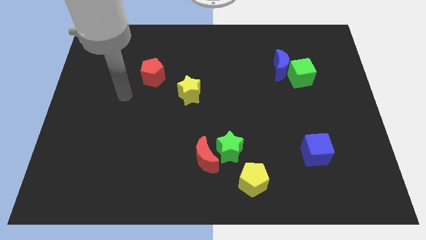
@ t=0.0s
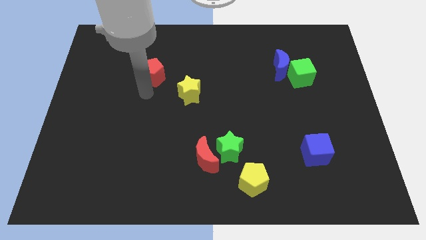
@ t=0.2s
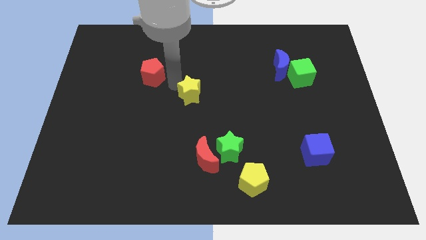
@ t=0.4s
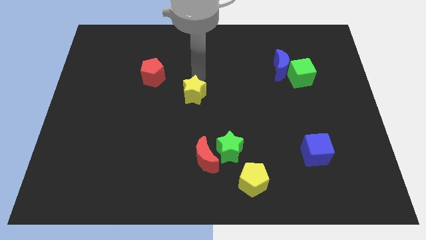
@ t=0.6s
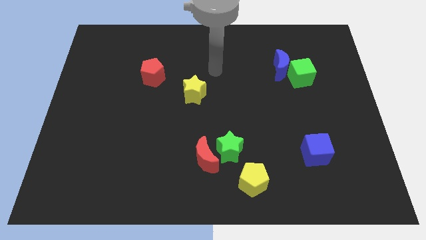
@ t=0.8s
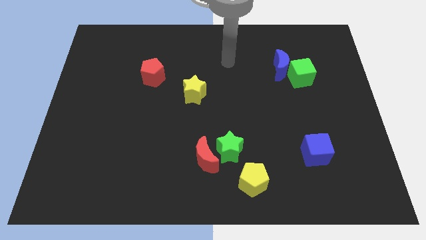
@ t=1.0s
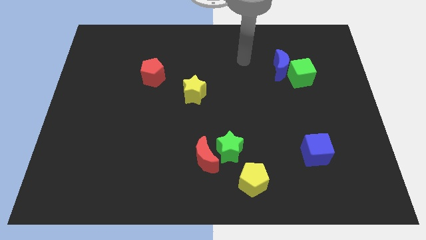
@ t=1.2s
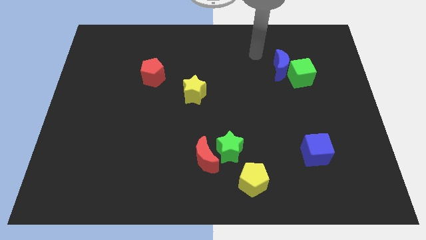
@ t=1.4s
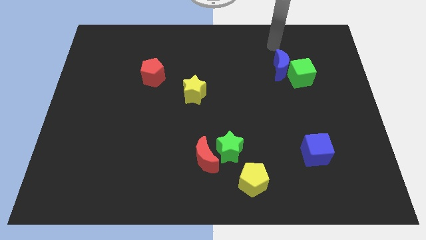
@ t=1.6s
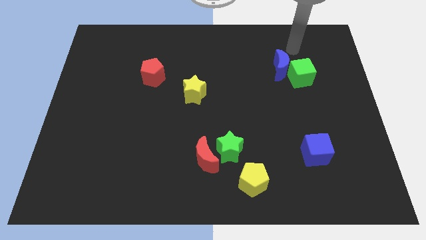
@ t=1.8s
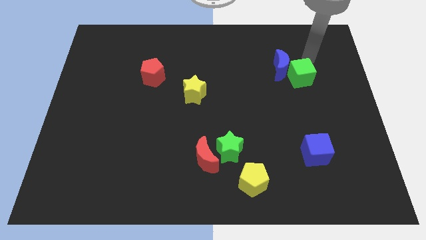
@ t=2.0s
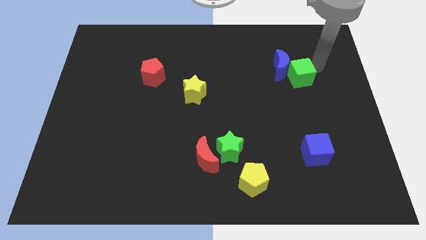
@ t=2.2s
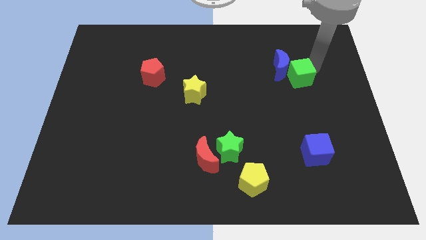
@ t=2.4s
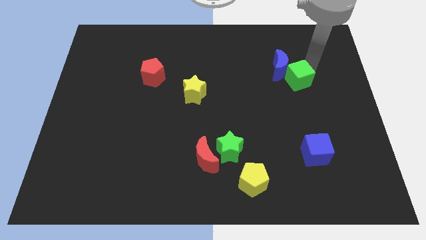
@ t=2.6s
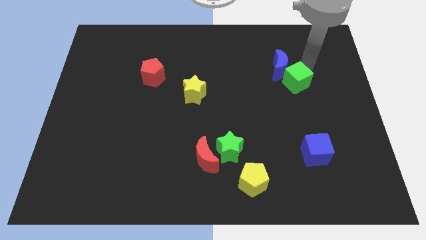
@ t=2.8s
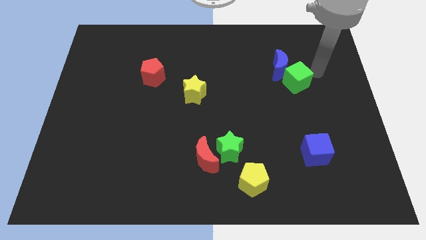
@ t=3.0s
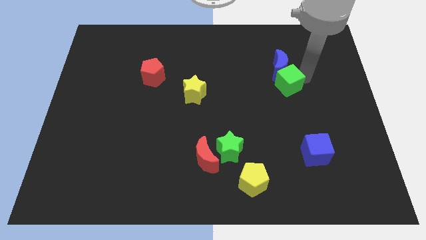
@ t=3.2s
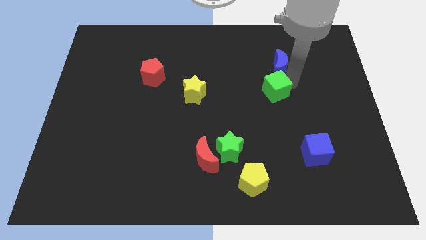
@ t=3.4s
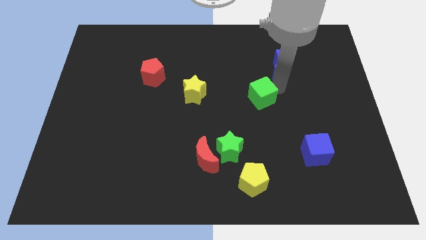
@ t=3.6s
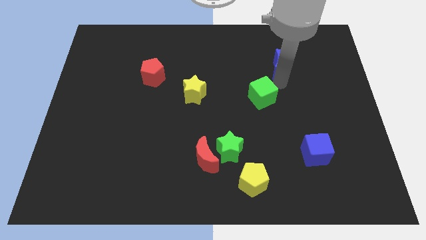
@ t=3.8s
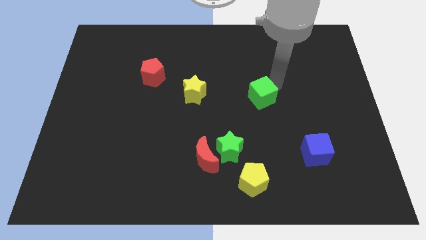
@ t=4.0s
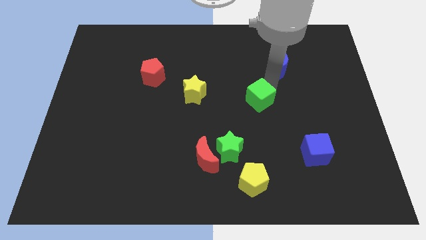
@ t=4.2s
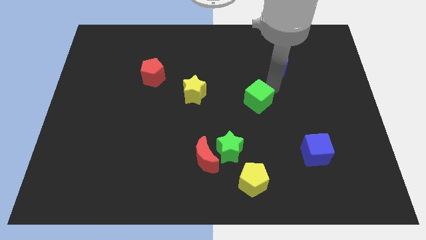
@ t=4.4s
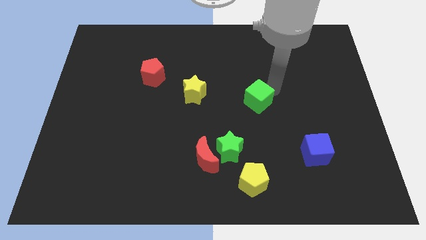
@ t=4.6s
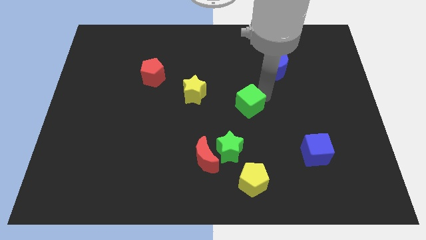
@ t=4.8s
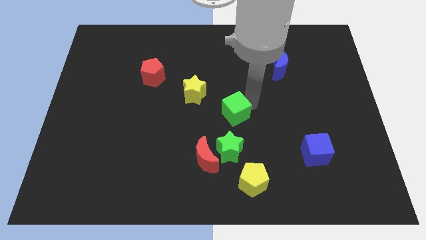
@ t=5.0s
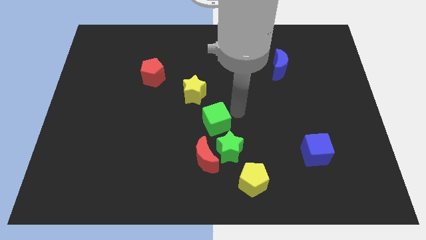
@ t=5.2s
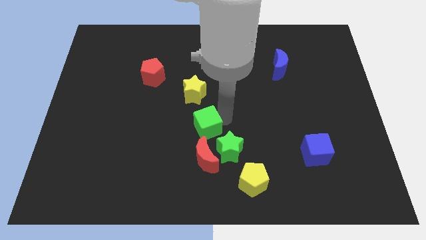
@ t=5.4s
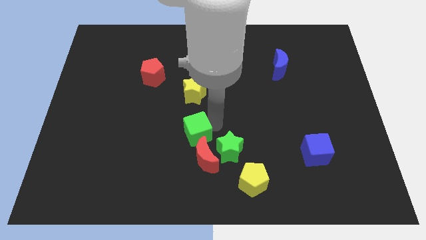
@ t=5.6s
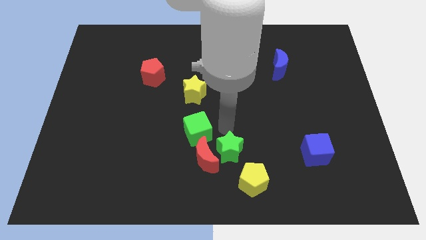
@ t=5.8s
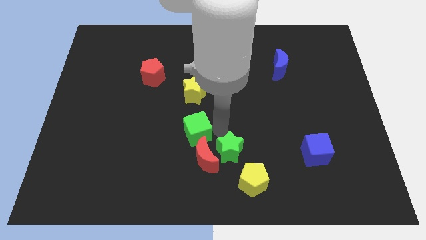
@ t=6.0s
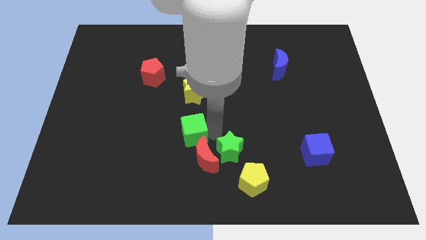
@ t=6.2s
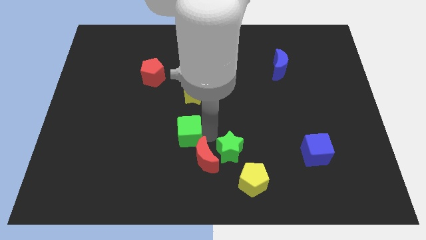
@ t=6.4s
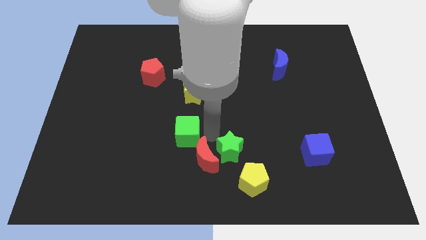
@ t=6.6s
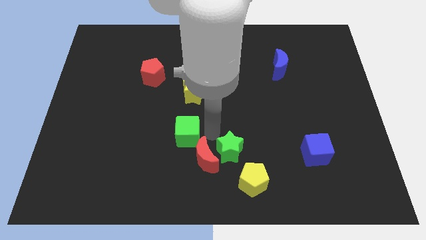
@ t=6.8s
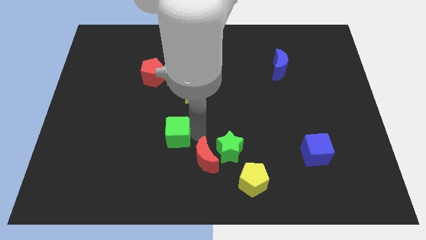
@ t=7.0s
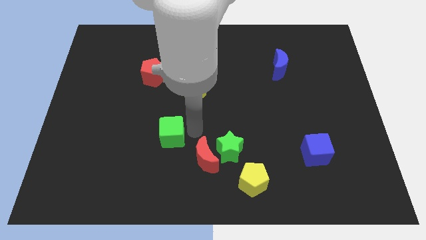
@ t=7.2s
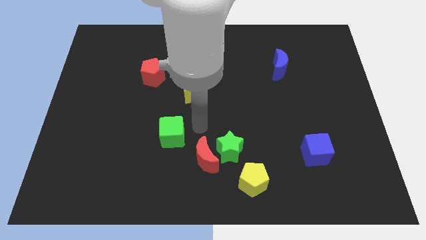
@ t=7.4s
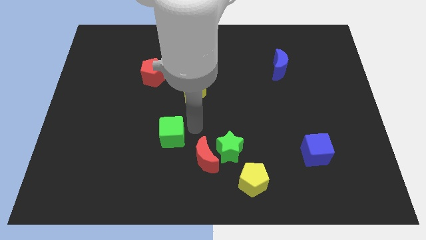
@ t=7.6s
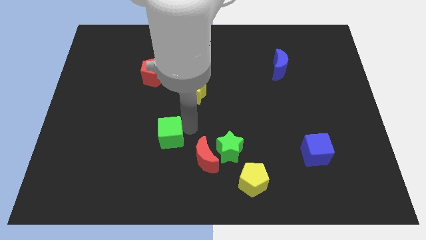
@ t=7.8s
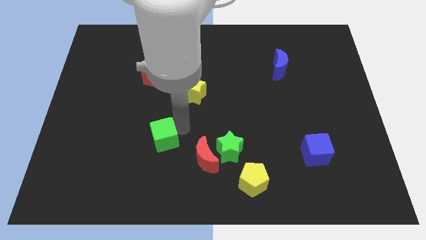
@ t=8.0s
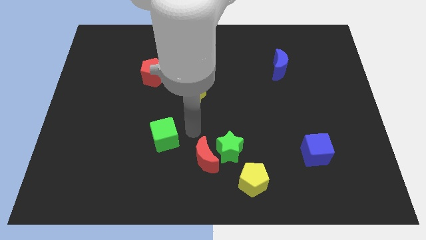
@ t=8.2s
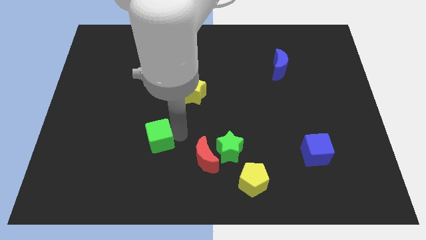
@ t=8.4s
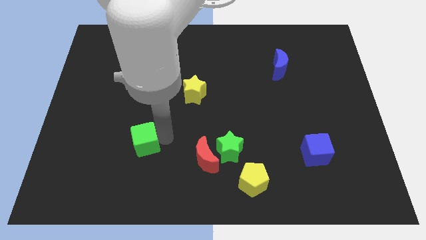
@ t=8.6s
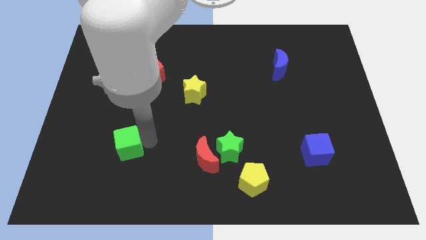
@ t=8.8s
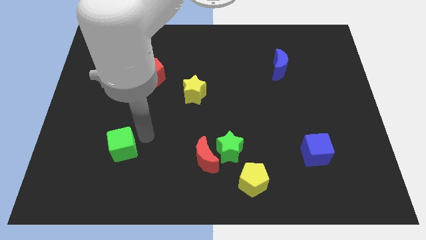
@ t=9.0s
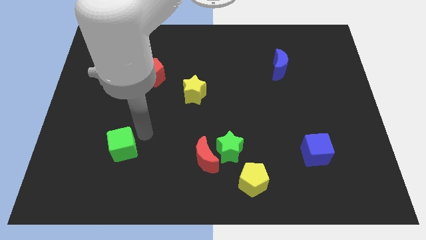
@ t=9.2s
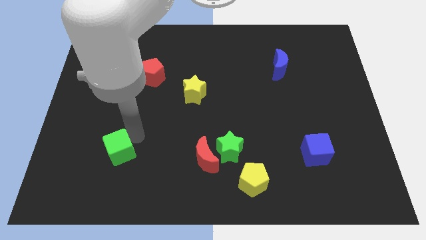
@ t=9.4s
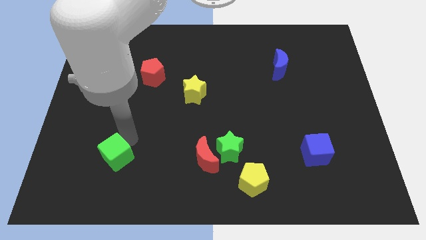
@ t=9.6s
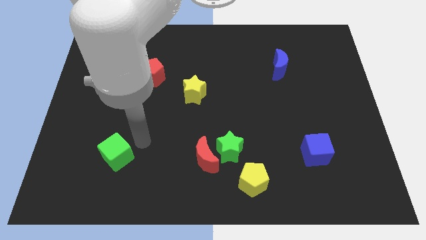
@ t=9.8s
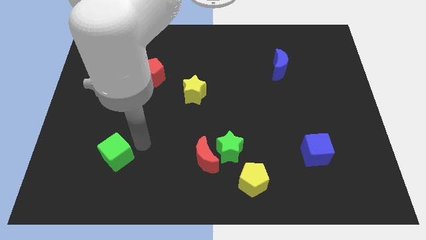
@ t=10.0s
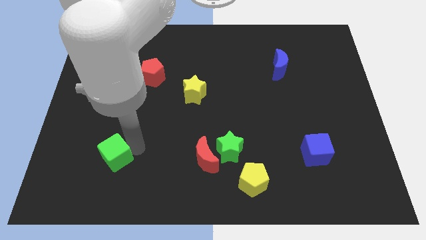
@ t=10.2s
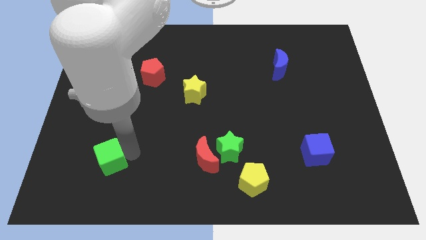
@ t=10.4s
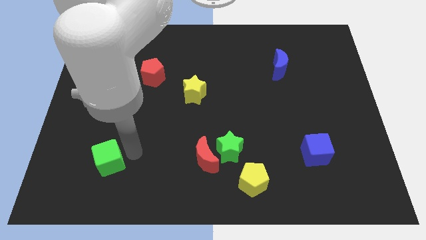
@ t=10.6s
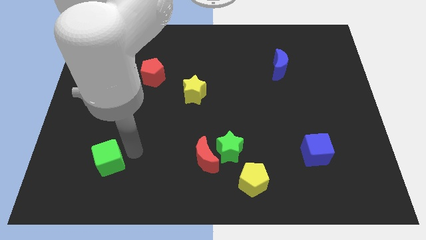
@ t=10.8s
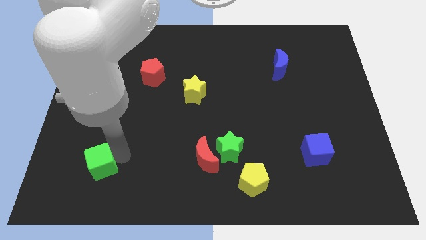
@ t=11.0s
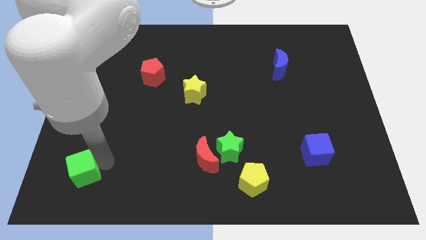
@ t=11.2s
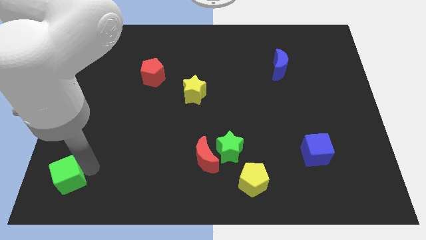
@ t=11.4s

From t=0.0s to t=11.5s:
push the green cube to the bottom left
